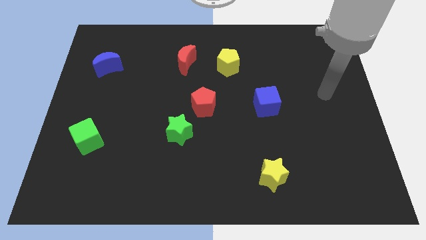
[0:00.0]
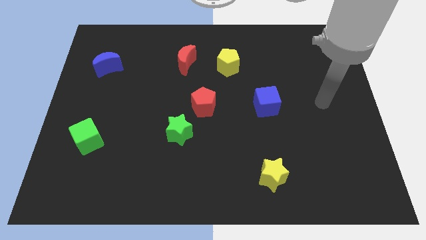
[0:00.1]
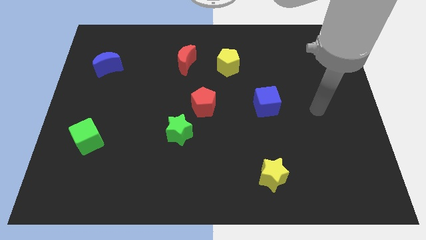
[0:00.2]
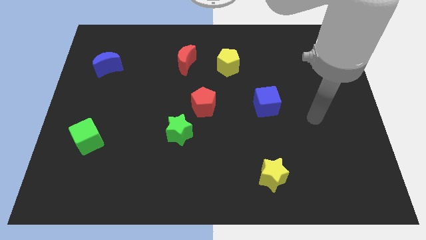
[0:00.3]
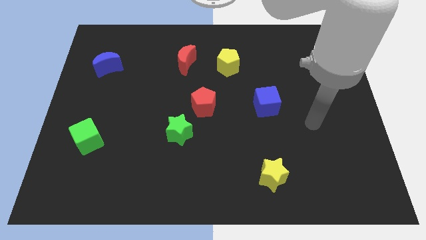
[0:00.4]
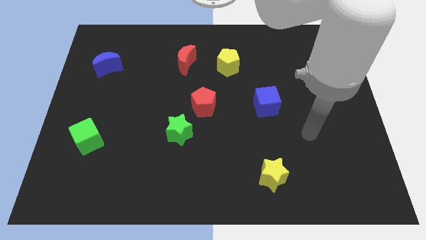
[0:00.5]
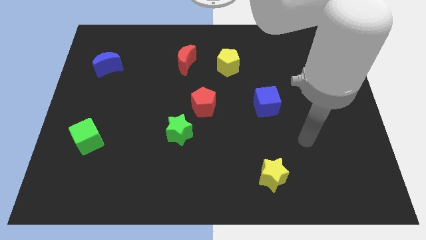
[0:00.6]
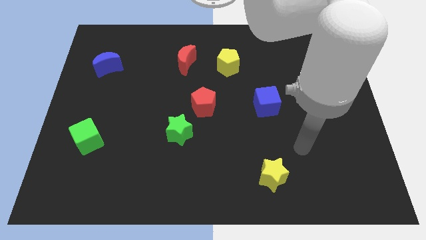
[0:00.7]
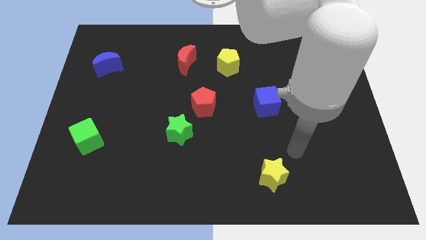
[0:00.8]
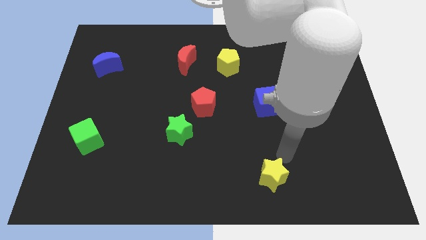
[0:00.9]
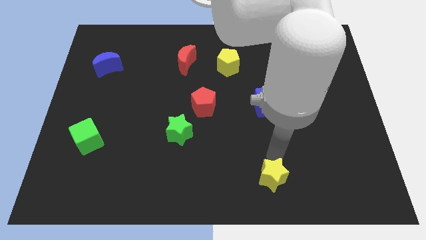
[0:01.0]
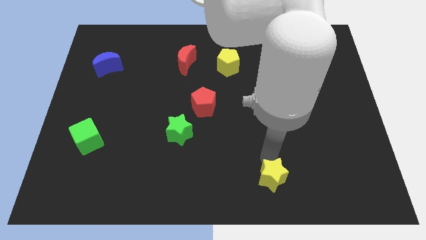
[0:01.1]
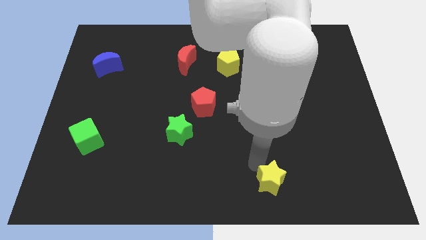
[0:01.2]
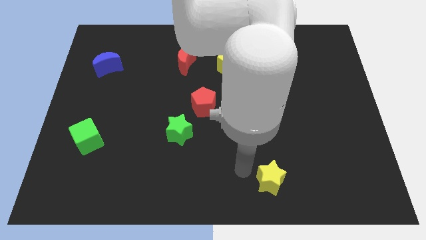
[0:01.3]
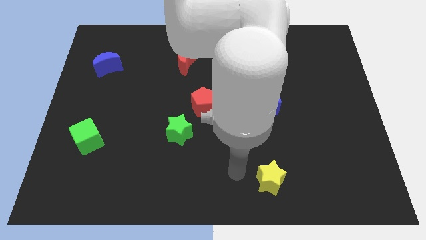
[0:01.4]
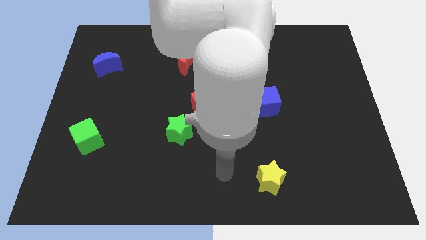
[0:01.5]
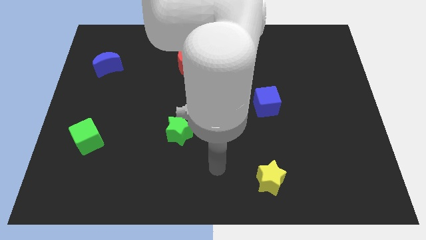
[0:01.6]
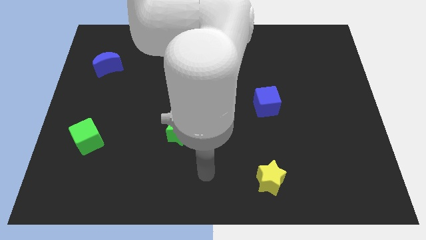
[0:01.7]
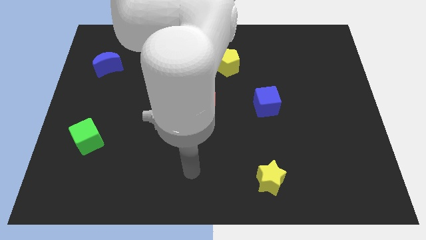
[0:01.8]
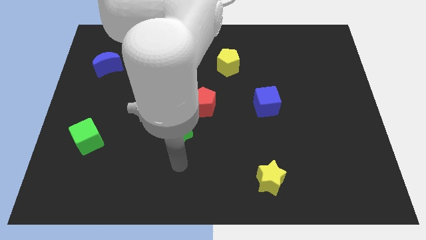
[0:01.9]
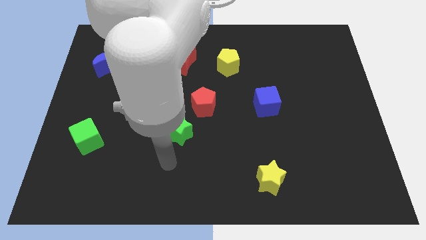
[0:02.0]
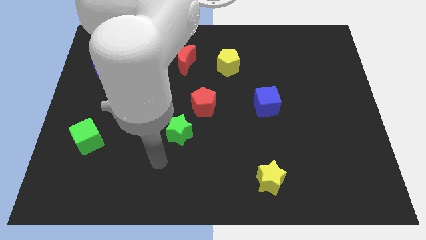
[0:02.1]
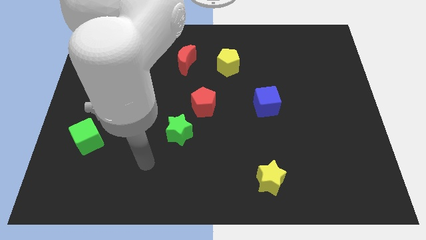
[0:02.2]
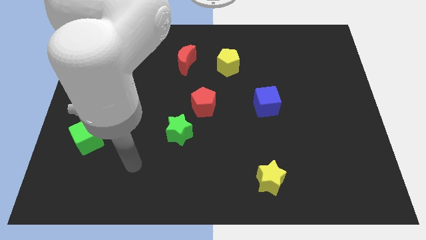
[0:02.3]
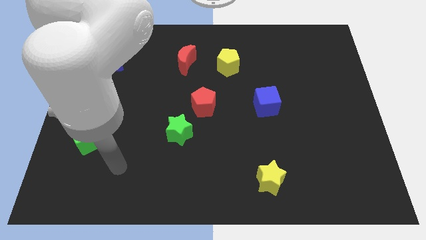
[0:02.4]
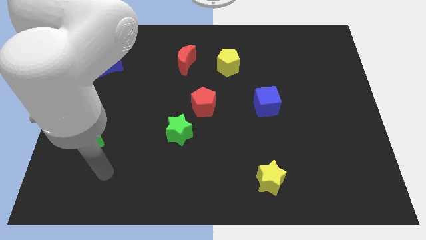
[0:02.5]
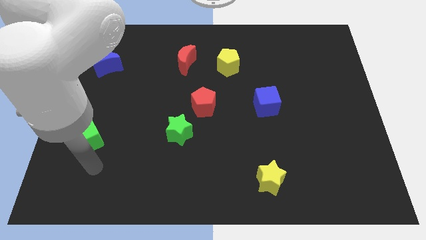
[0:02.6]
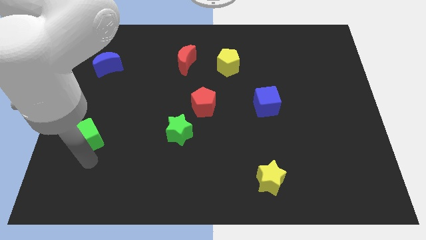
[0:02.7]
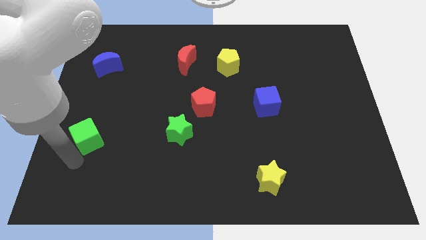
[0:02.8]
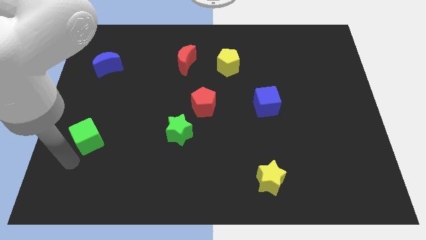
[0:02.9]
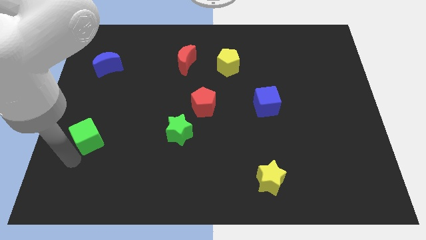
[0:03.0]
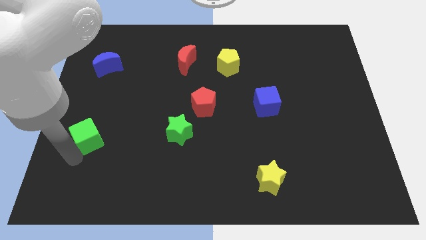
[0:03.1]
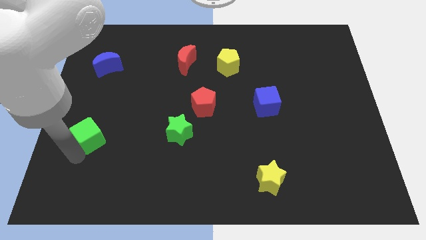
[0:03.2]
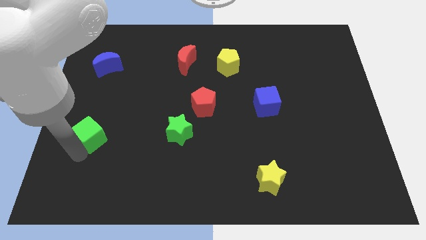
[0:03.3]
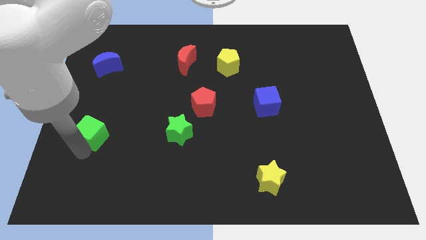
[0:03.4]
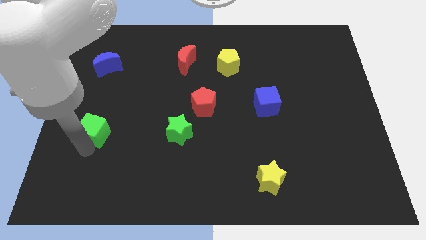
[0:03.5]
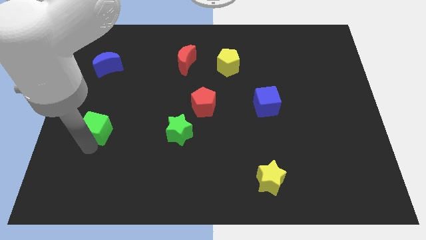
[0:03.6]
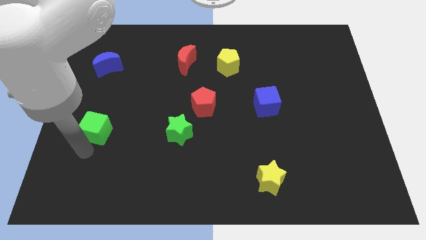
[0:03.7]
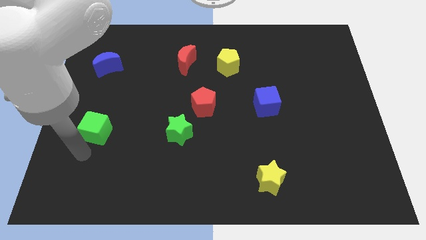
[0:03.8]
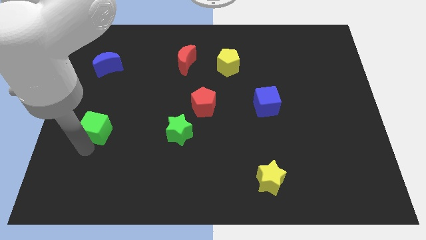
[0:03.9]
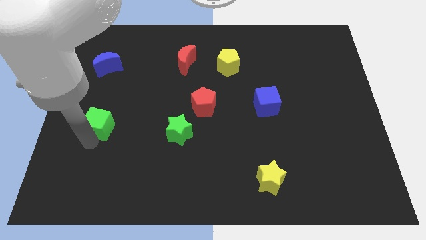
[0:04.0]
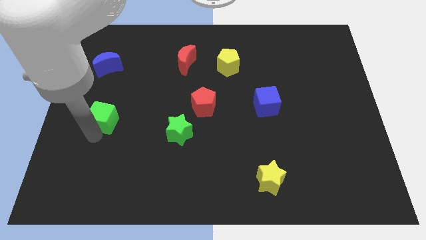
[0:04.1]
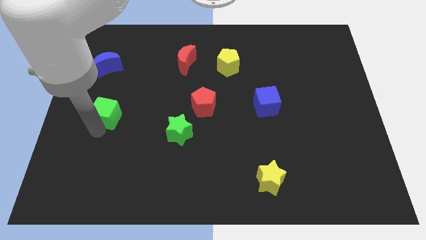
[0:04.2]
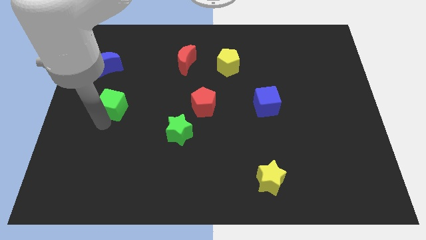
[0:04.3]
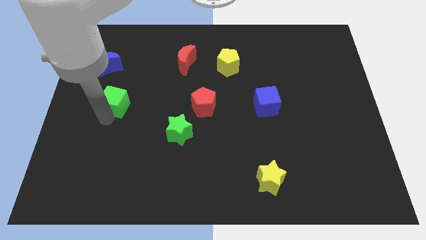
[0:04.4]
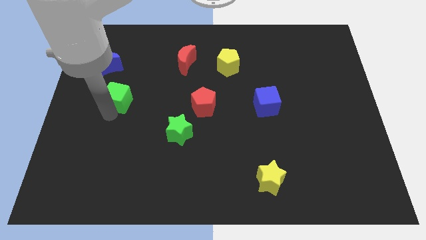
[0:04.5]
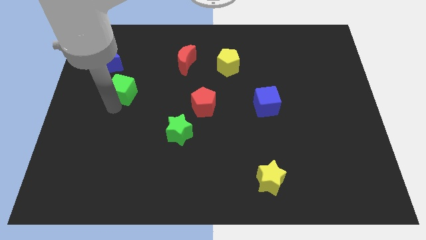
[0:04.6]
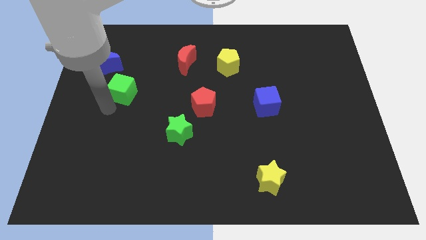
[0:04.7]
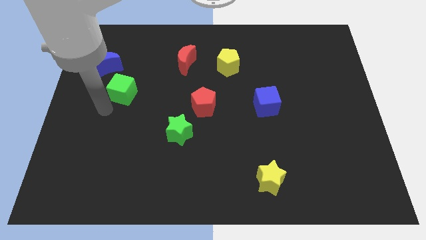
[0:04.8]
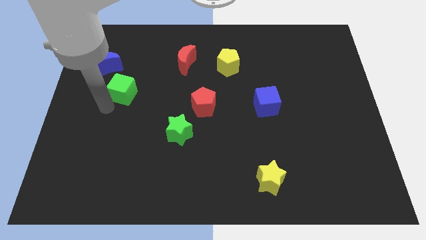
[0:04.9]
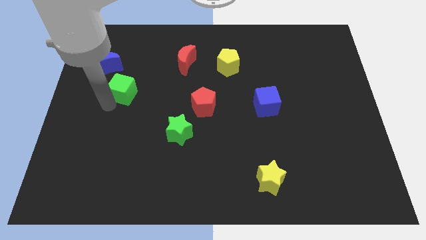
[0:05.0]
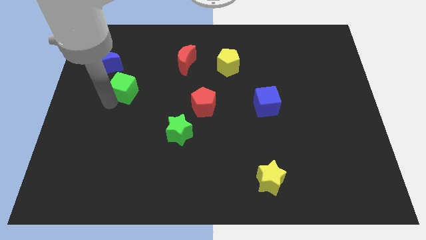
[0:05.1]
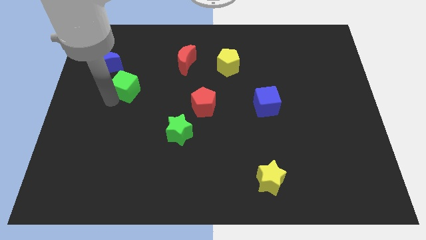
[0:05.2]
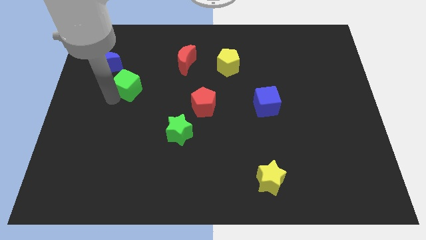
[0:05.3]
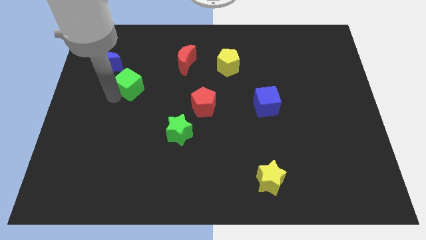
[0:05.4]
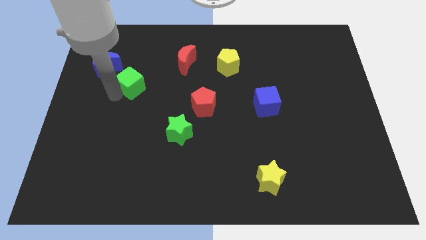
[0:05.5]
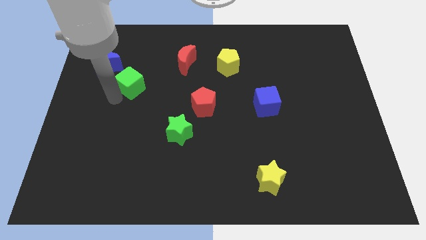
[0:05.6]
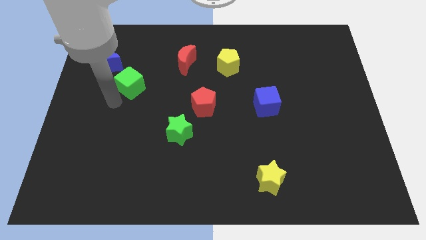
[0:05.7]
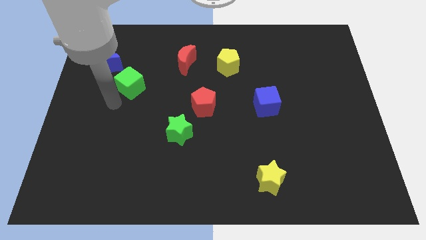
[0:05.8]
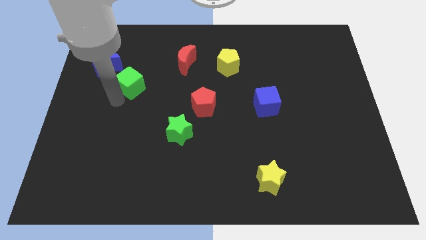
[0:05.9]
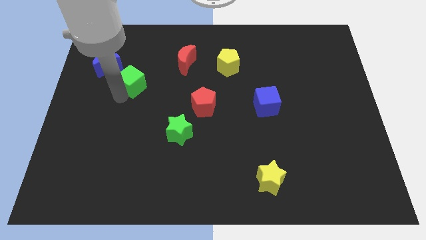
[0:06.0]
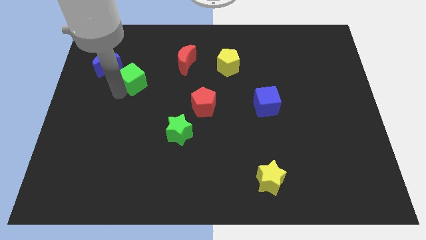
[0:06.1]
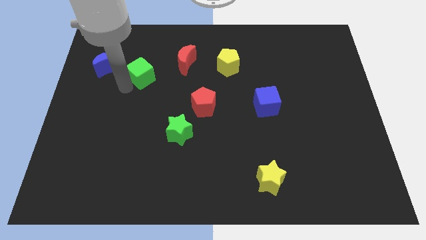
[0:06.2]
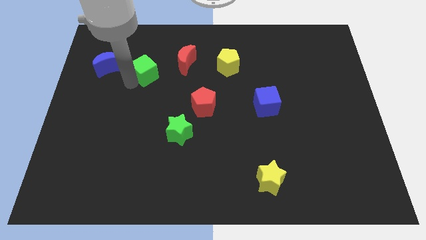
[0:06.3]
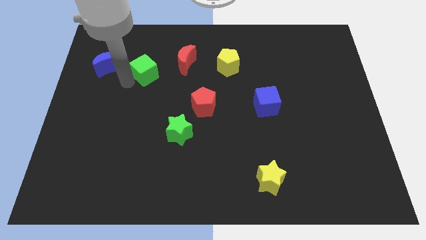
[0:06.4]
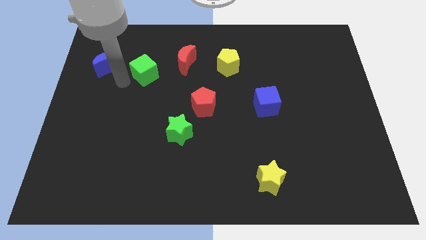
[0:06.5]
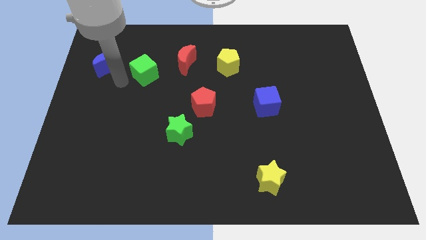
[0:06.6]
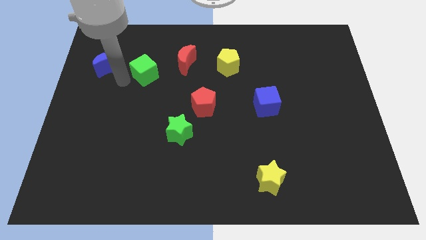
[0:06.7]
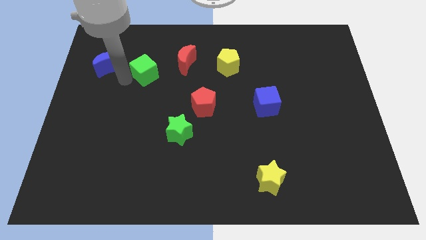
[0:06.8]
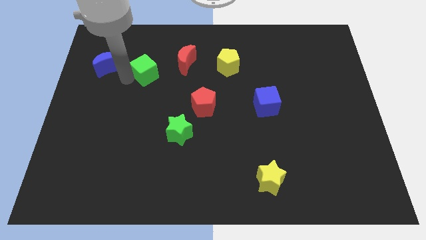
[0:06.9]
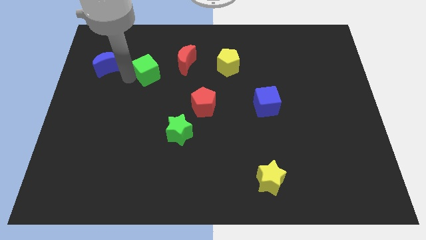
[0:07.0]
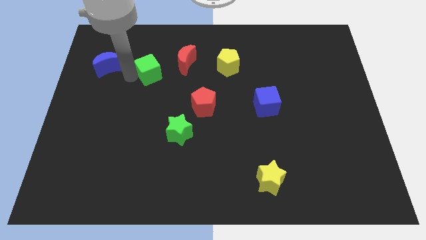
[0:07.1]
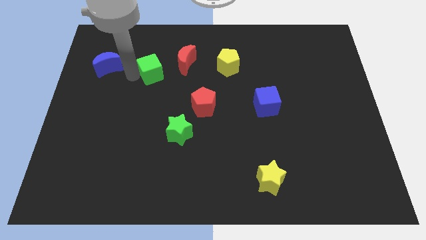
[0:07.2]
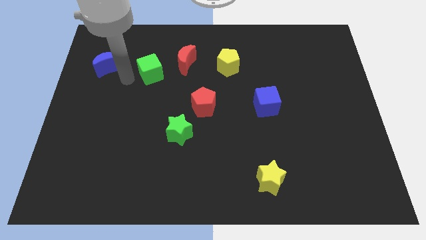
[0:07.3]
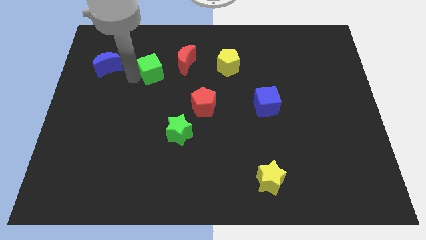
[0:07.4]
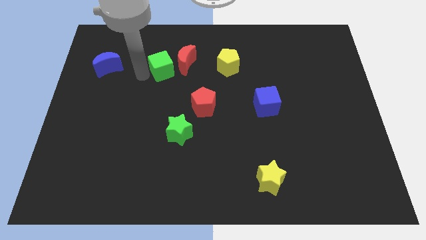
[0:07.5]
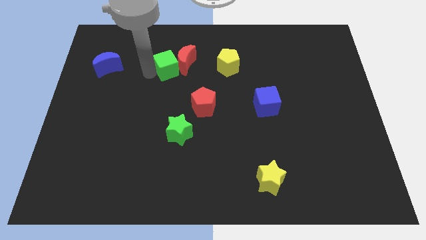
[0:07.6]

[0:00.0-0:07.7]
move the green cube towards the red moon
